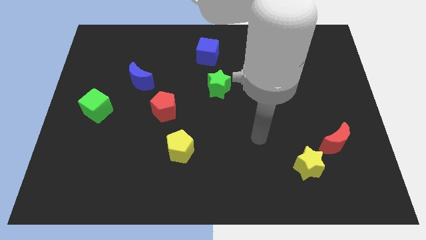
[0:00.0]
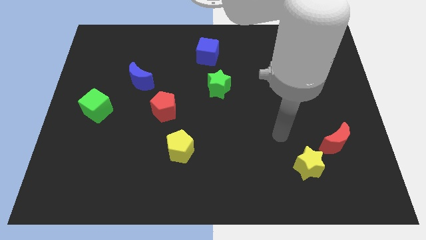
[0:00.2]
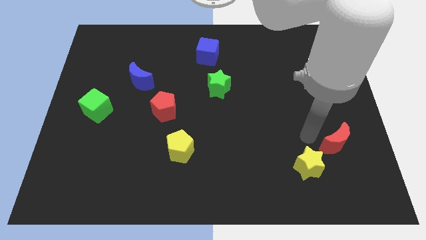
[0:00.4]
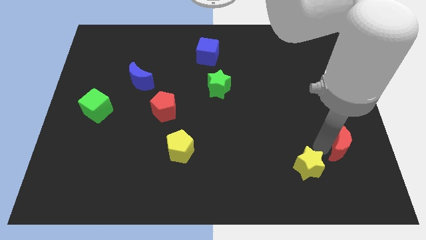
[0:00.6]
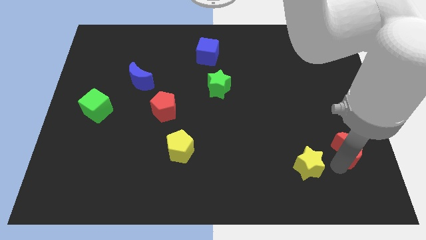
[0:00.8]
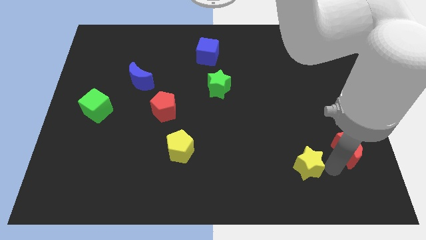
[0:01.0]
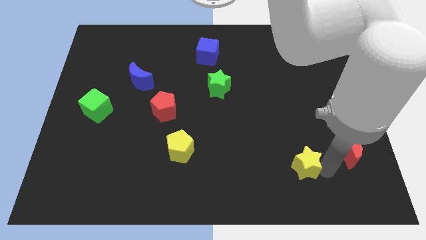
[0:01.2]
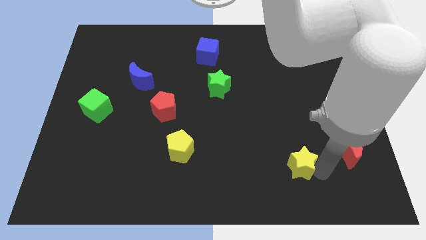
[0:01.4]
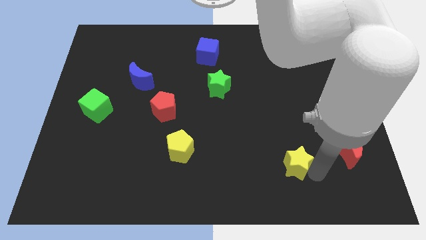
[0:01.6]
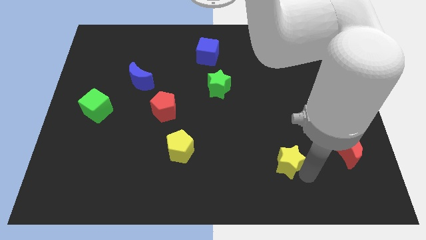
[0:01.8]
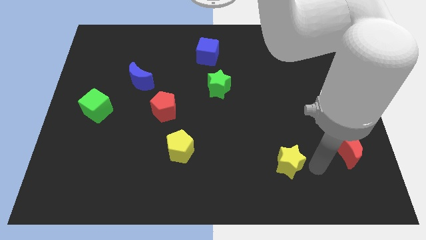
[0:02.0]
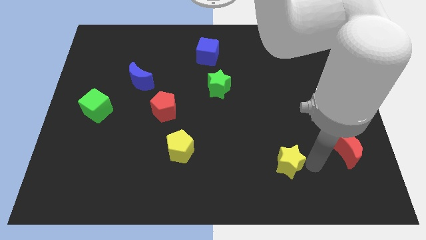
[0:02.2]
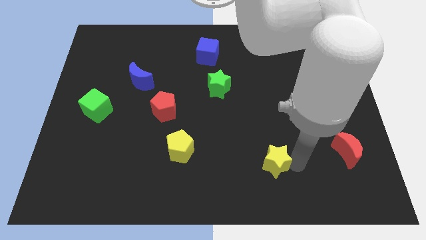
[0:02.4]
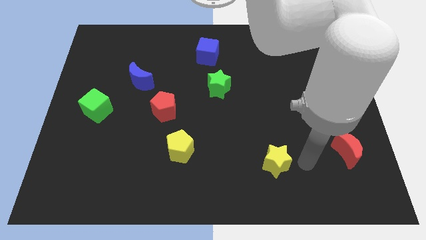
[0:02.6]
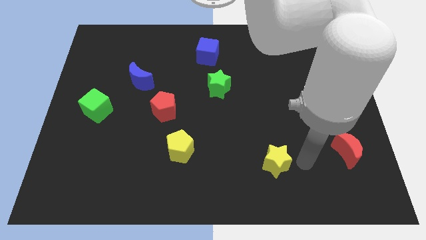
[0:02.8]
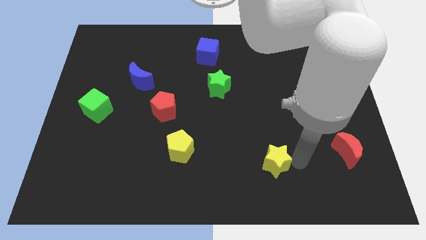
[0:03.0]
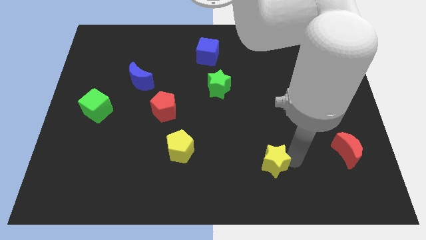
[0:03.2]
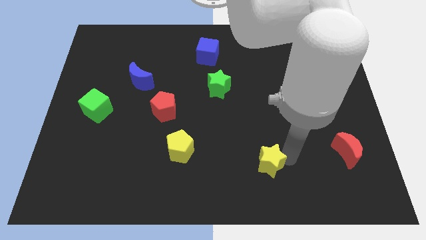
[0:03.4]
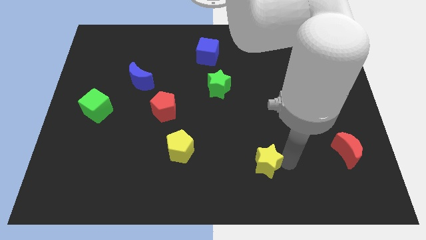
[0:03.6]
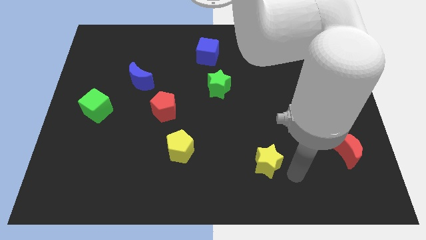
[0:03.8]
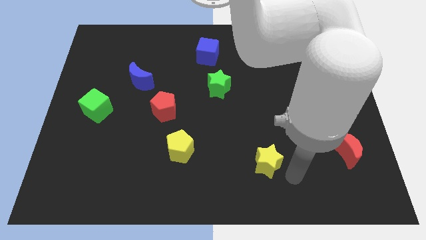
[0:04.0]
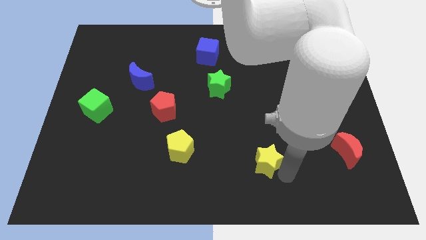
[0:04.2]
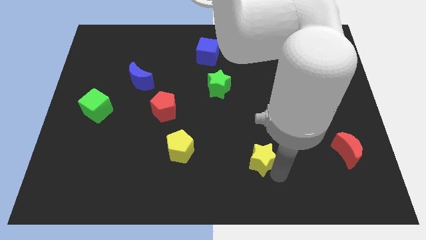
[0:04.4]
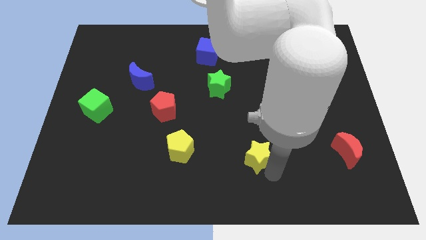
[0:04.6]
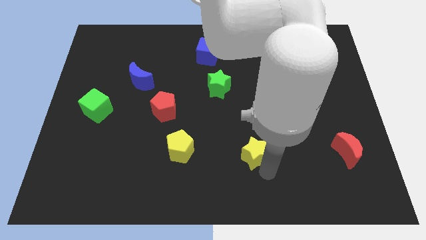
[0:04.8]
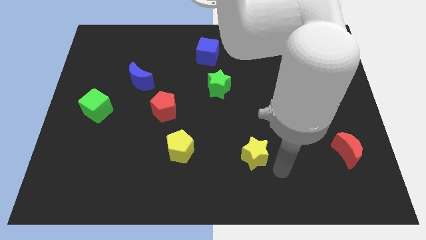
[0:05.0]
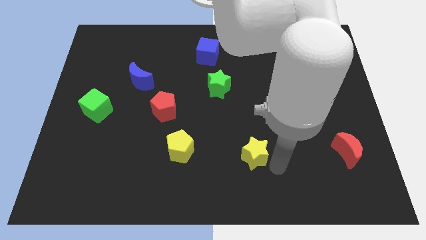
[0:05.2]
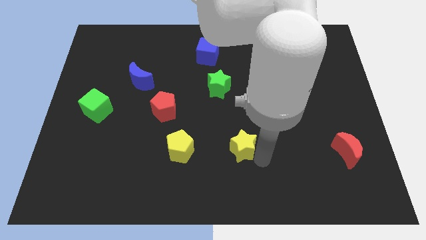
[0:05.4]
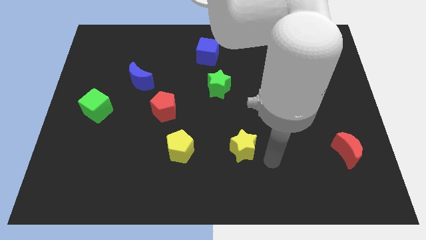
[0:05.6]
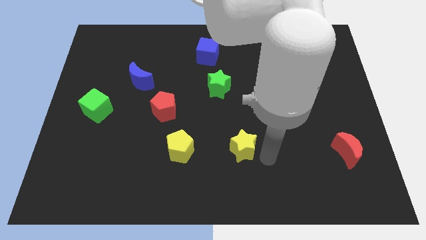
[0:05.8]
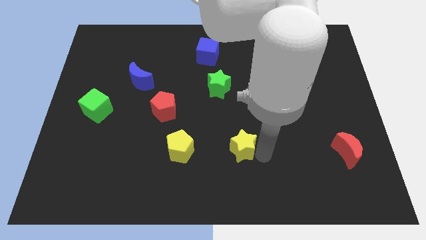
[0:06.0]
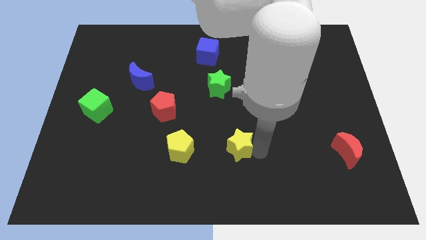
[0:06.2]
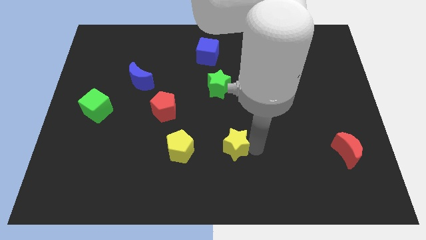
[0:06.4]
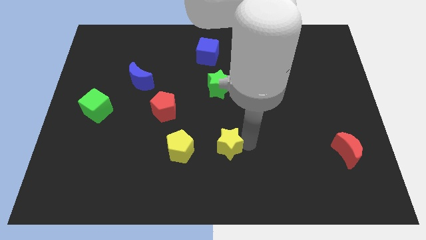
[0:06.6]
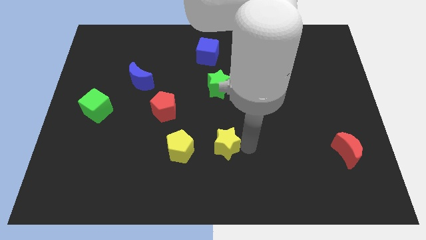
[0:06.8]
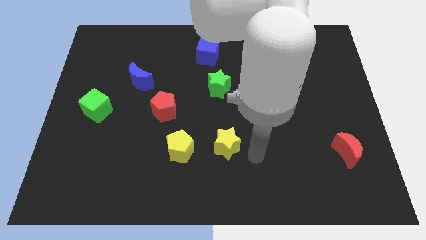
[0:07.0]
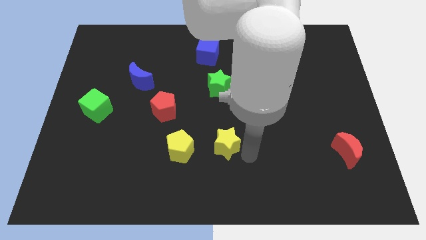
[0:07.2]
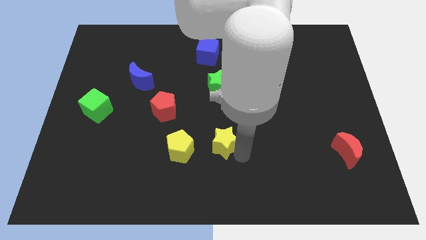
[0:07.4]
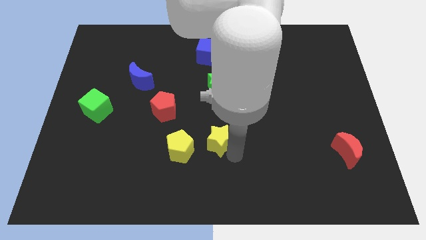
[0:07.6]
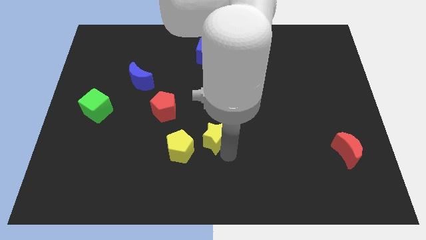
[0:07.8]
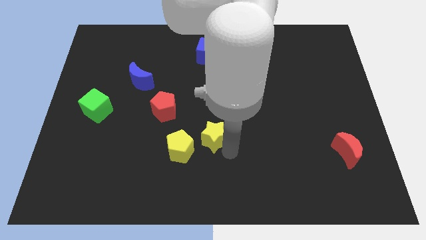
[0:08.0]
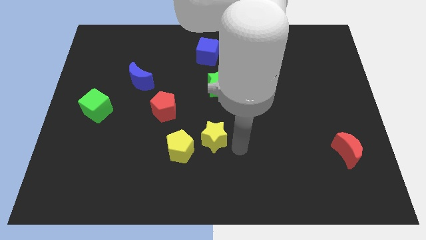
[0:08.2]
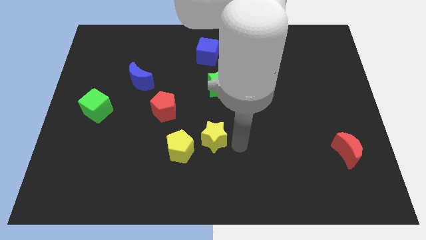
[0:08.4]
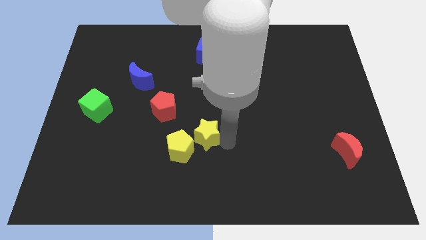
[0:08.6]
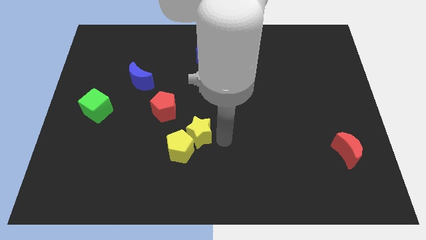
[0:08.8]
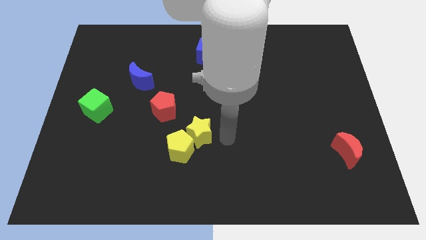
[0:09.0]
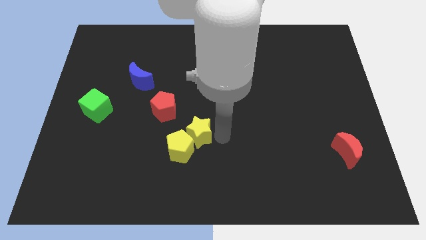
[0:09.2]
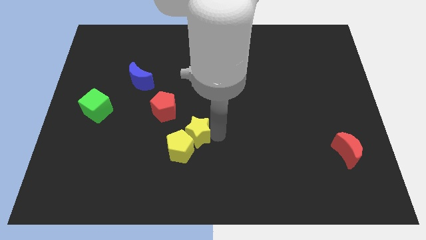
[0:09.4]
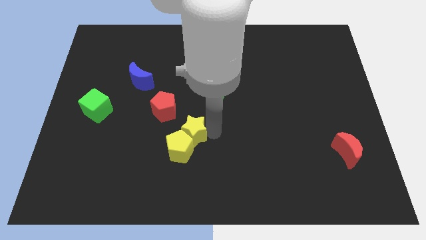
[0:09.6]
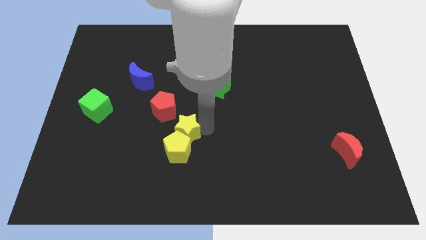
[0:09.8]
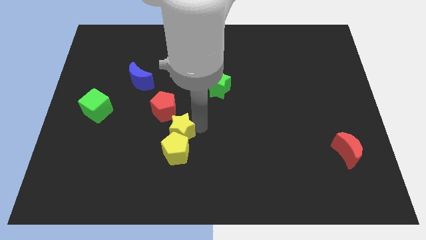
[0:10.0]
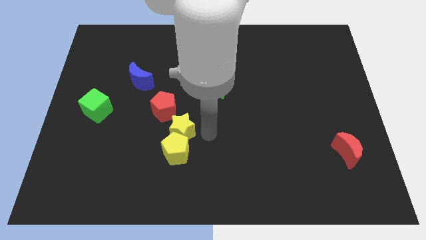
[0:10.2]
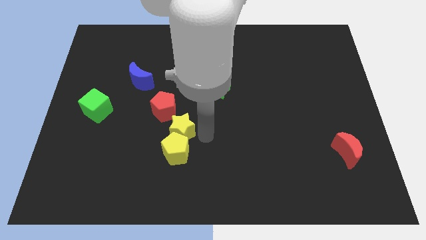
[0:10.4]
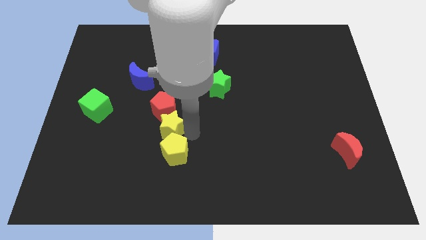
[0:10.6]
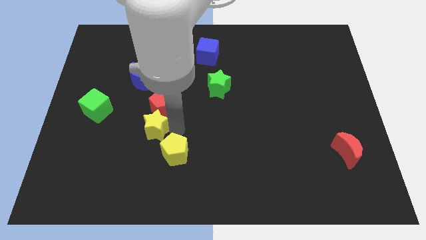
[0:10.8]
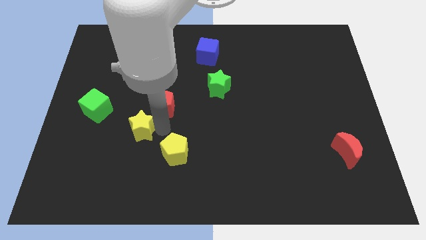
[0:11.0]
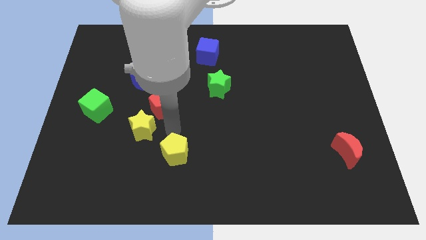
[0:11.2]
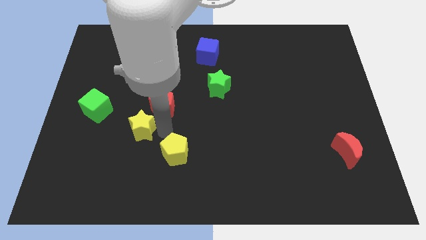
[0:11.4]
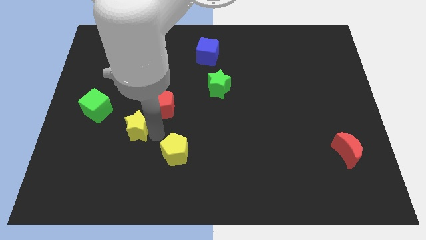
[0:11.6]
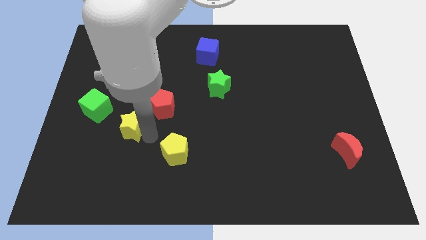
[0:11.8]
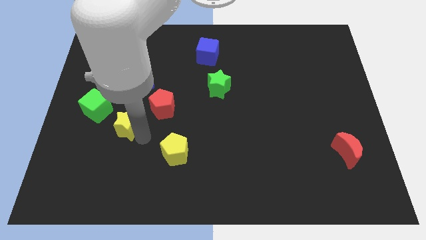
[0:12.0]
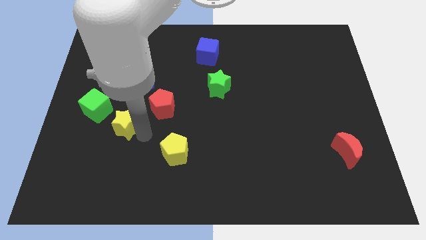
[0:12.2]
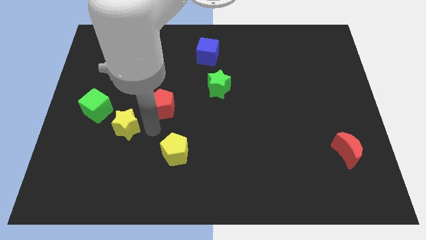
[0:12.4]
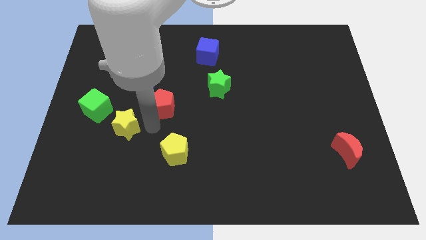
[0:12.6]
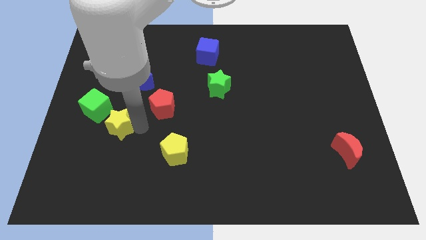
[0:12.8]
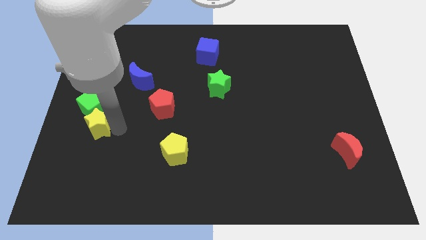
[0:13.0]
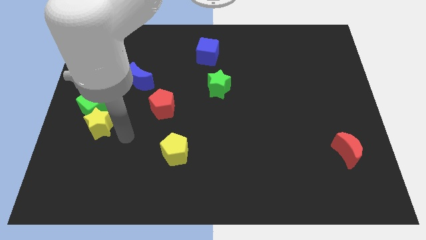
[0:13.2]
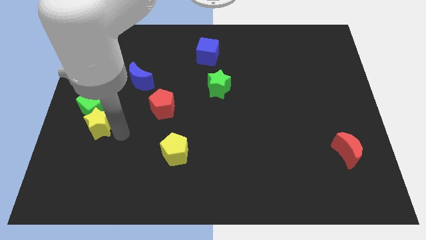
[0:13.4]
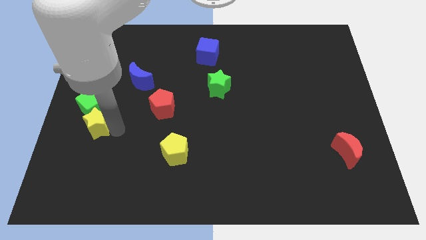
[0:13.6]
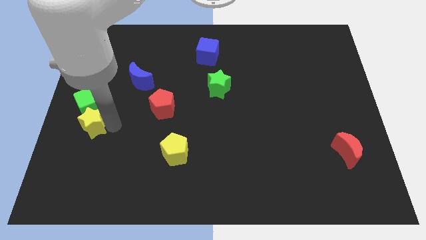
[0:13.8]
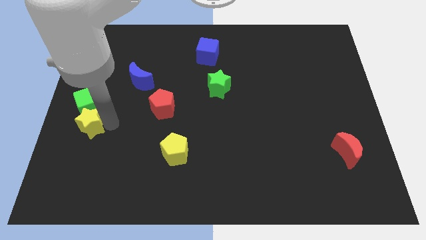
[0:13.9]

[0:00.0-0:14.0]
put the yellow star to the center left

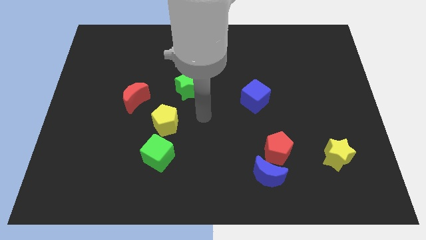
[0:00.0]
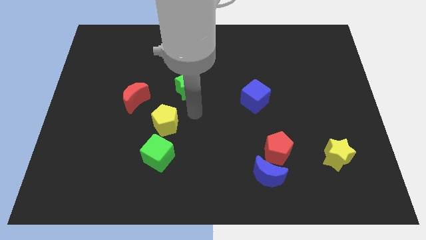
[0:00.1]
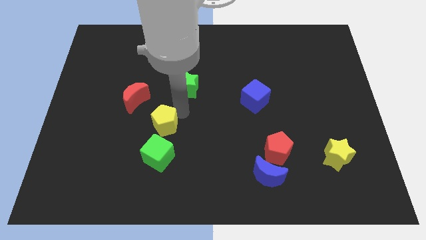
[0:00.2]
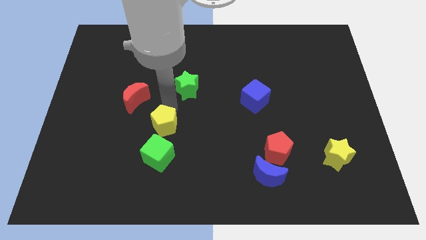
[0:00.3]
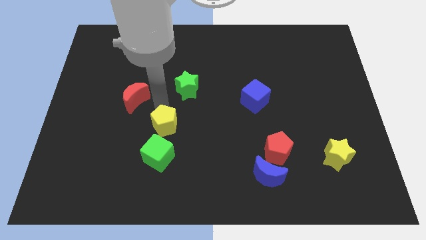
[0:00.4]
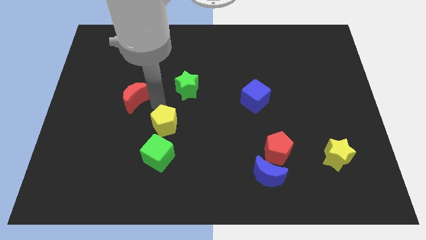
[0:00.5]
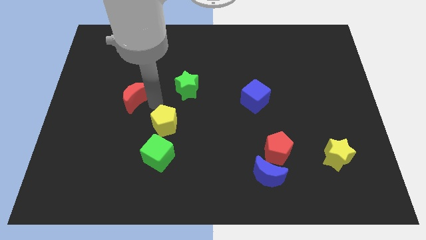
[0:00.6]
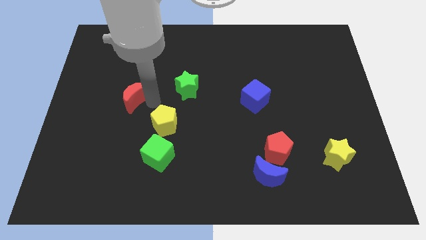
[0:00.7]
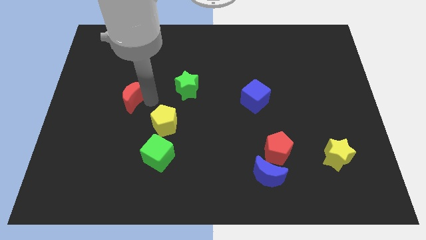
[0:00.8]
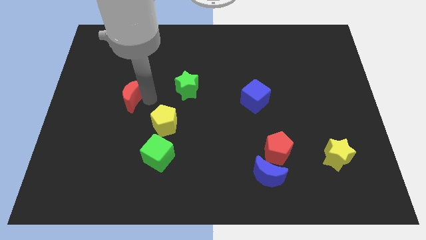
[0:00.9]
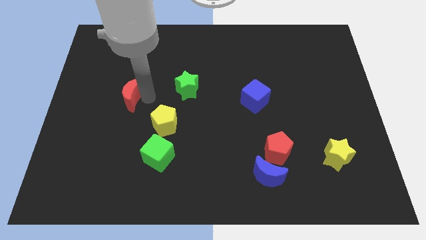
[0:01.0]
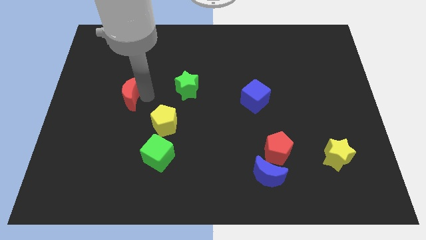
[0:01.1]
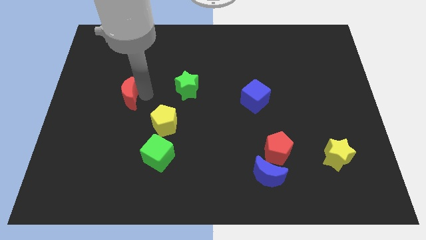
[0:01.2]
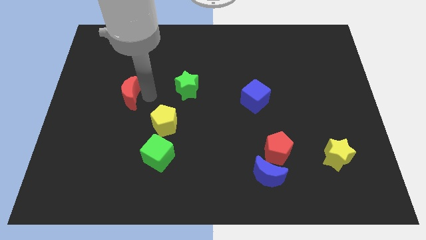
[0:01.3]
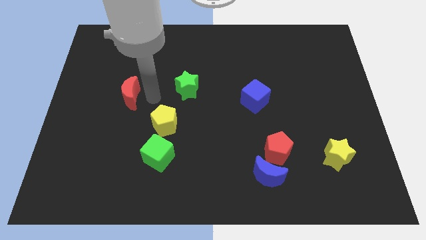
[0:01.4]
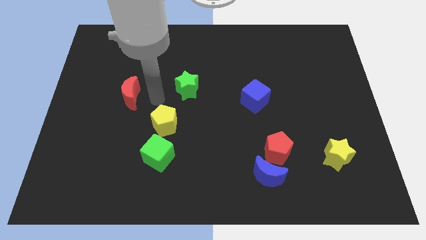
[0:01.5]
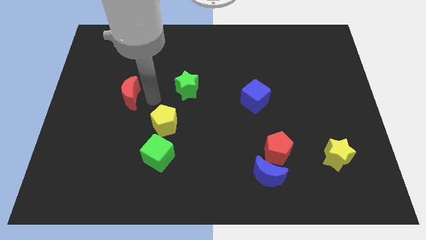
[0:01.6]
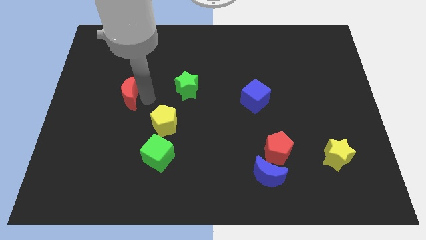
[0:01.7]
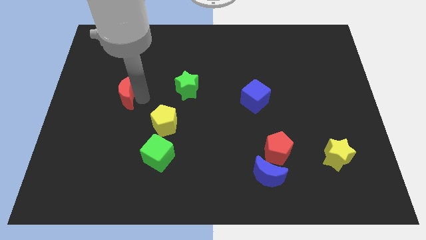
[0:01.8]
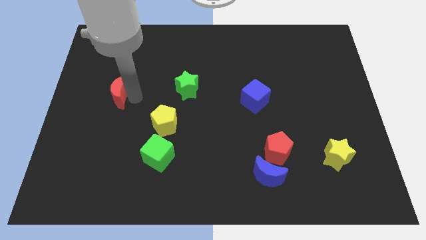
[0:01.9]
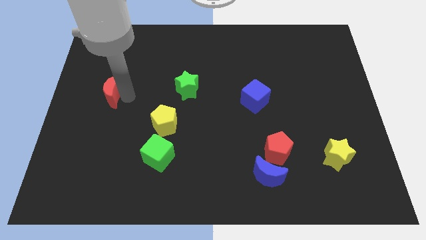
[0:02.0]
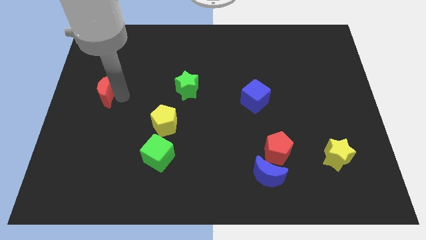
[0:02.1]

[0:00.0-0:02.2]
put the red moon to the center left
